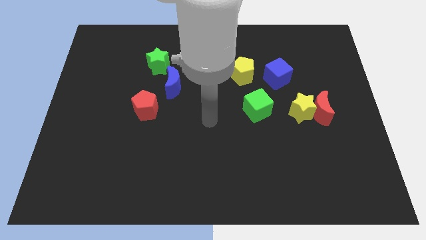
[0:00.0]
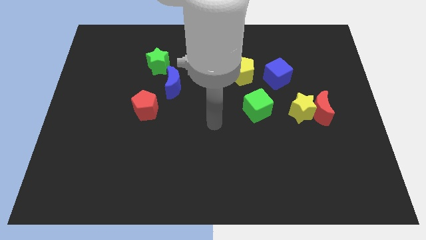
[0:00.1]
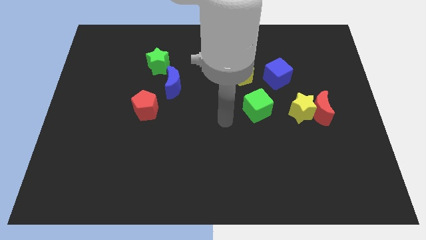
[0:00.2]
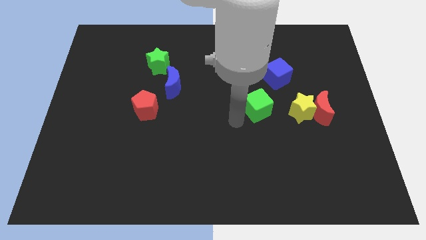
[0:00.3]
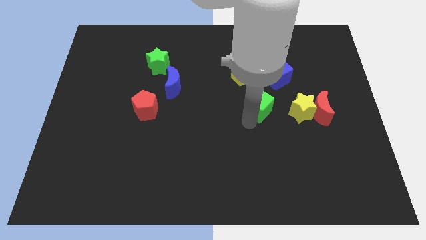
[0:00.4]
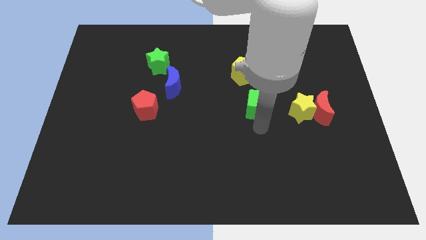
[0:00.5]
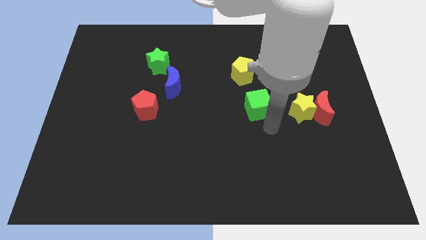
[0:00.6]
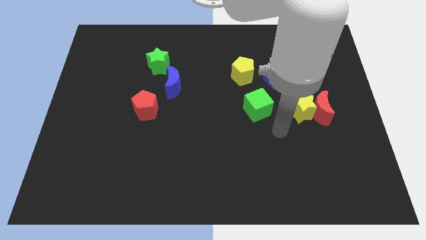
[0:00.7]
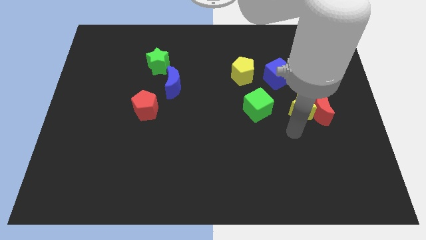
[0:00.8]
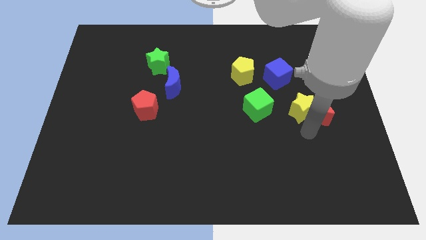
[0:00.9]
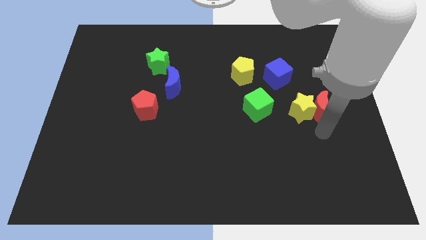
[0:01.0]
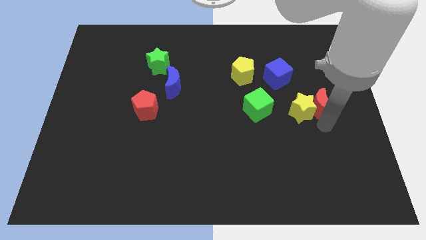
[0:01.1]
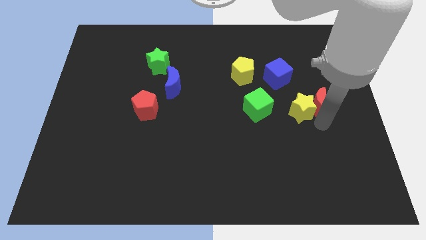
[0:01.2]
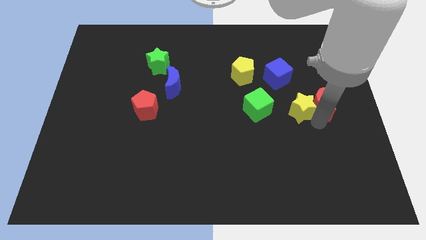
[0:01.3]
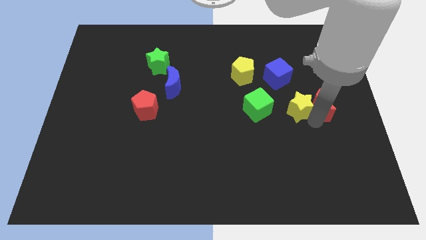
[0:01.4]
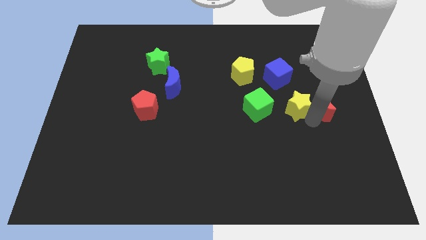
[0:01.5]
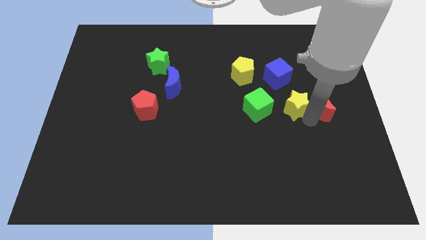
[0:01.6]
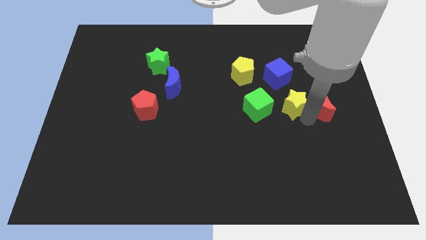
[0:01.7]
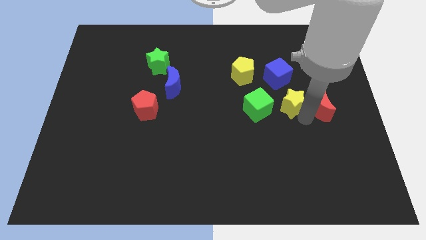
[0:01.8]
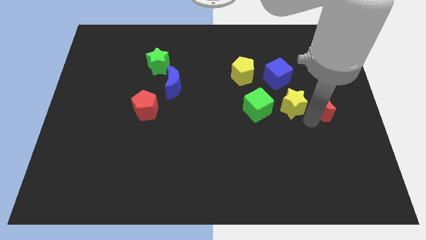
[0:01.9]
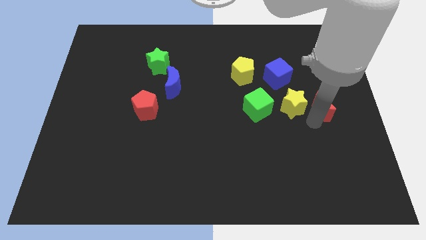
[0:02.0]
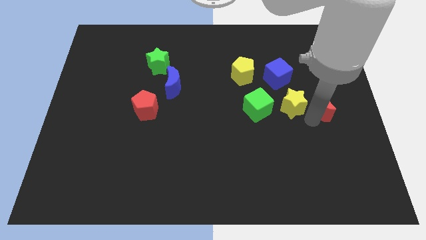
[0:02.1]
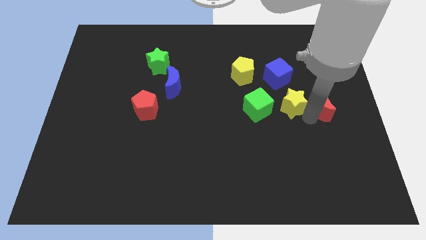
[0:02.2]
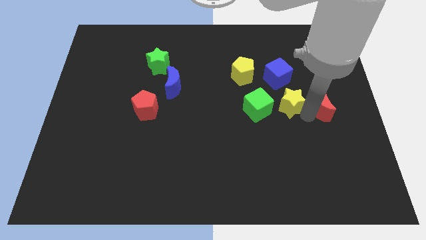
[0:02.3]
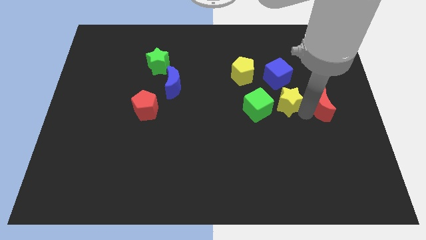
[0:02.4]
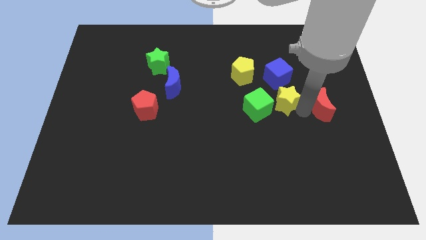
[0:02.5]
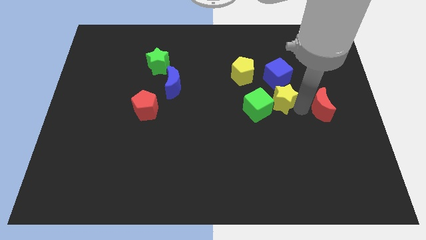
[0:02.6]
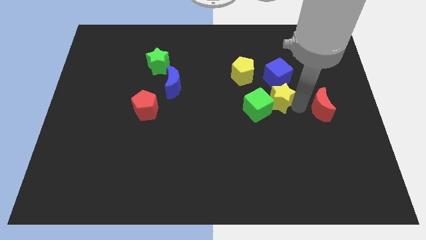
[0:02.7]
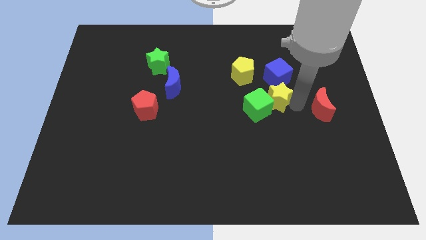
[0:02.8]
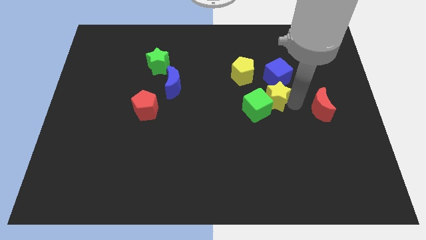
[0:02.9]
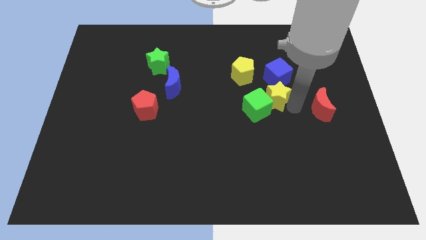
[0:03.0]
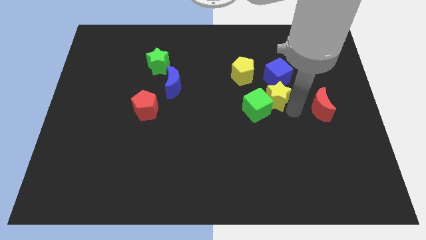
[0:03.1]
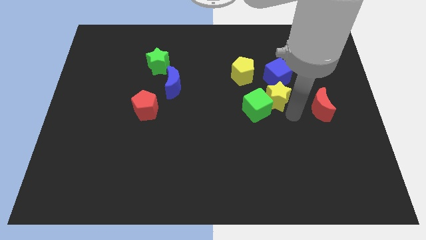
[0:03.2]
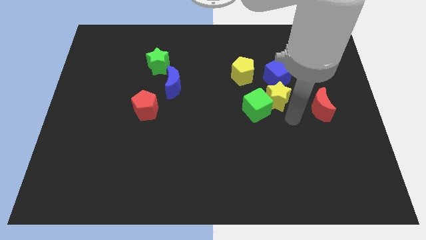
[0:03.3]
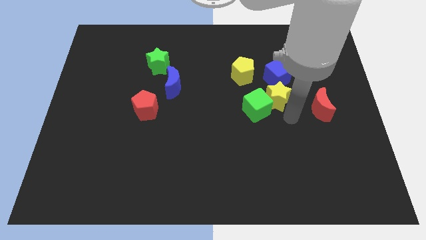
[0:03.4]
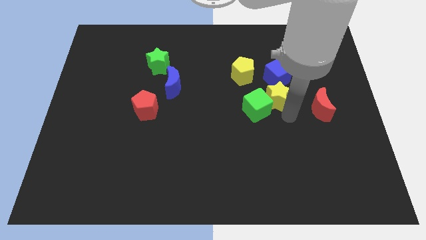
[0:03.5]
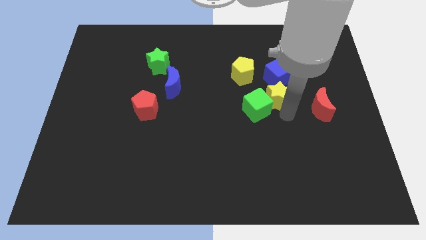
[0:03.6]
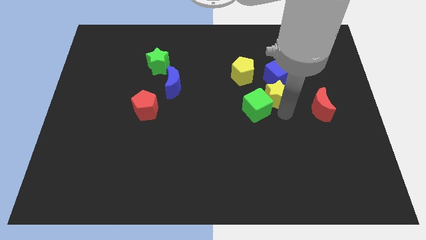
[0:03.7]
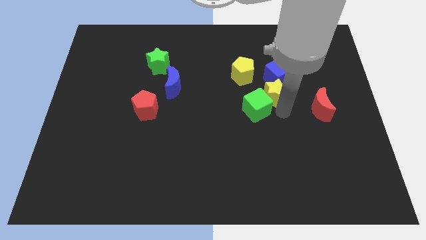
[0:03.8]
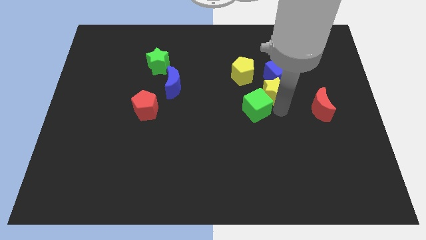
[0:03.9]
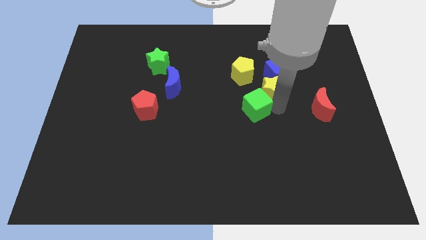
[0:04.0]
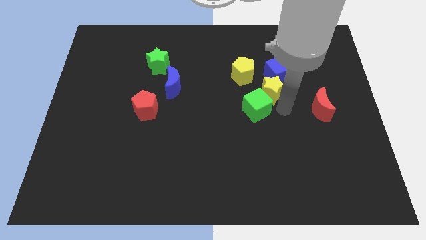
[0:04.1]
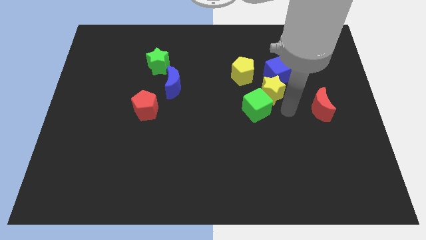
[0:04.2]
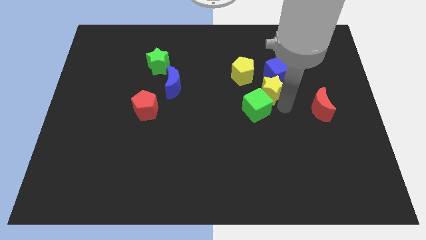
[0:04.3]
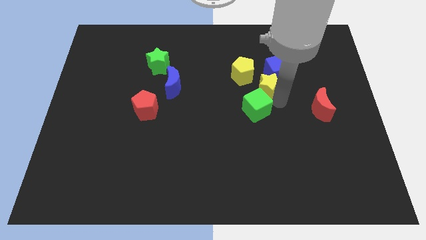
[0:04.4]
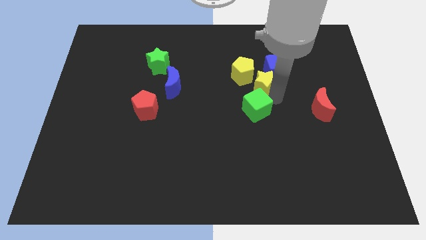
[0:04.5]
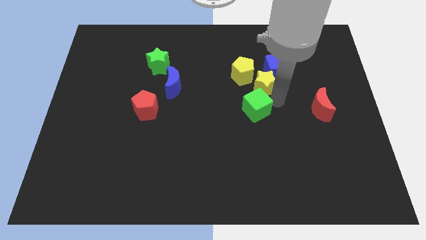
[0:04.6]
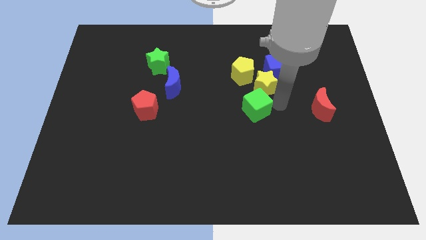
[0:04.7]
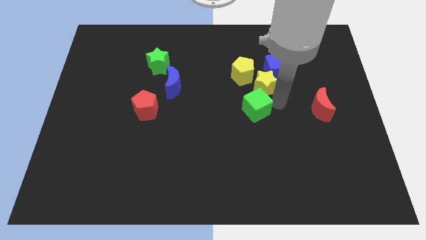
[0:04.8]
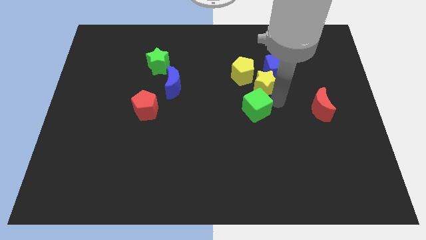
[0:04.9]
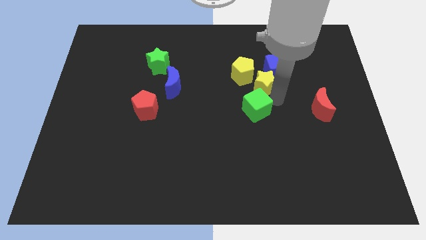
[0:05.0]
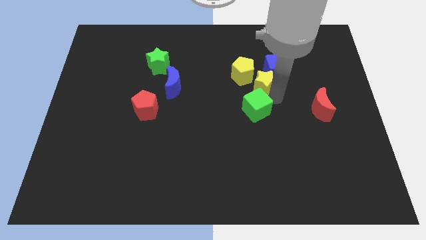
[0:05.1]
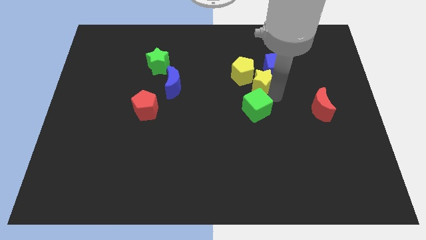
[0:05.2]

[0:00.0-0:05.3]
slide the yellow star close to the yellow pentagon

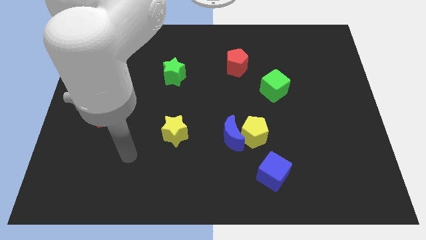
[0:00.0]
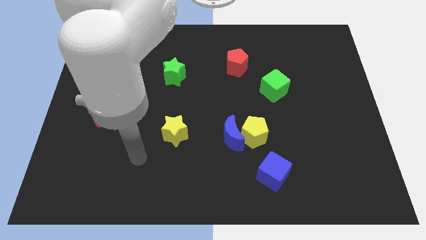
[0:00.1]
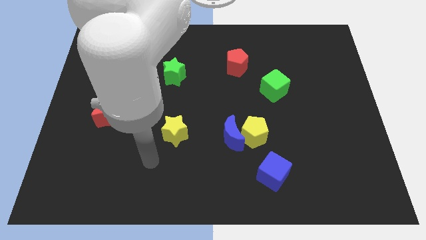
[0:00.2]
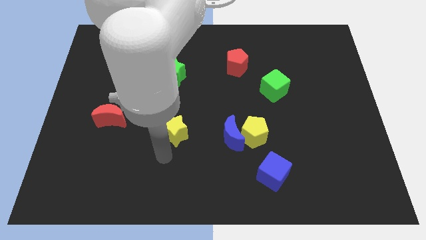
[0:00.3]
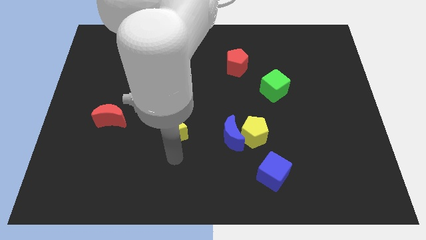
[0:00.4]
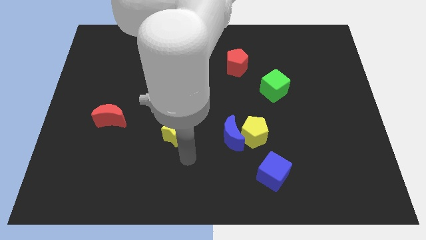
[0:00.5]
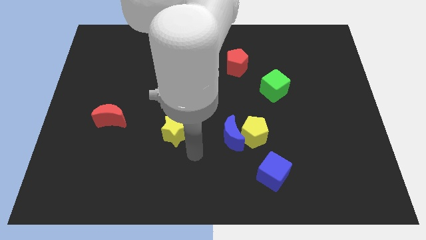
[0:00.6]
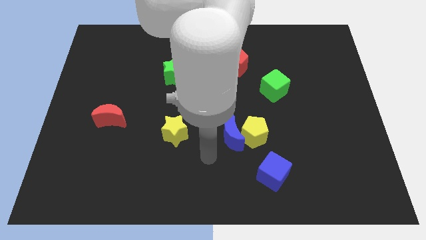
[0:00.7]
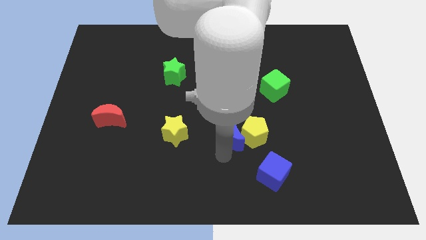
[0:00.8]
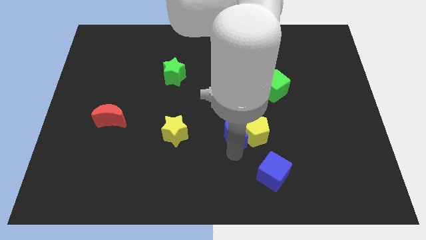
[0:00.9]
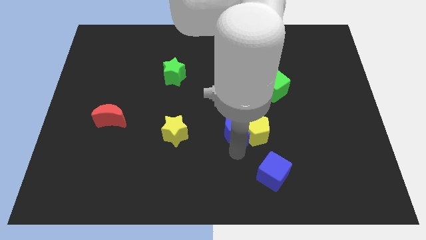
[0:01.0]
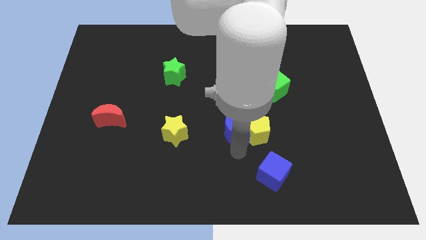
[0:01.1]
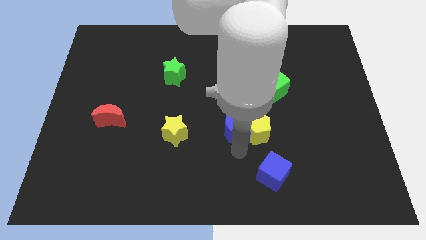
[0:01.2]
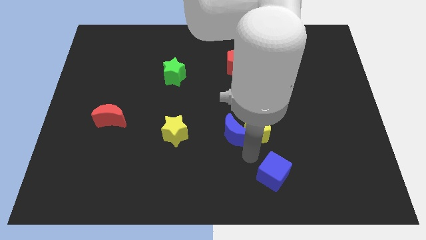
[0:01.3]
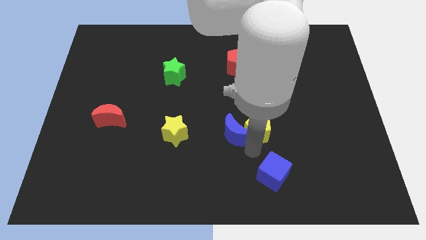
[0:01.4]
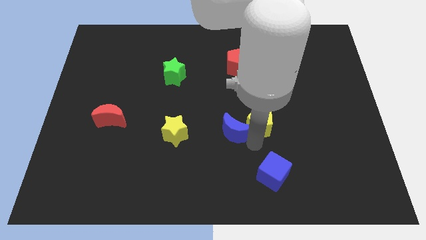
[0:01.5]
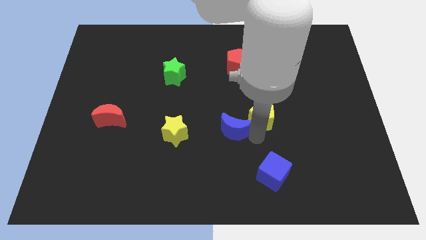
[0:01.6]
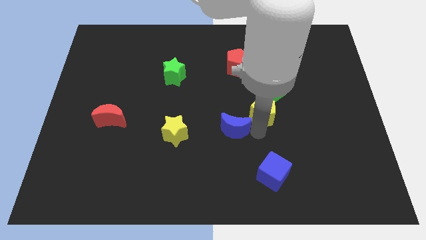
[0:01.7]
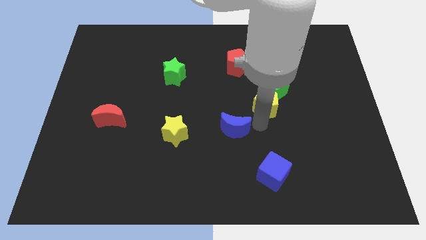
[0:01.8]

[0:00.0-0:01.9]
push the yellow pentagon next to the green cube
